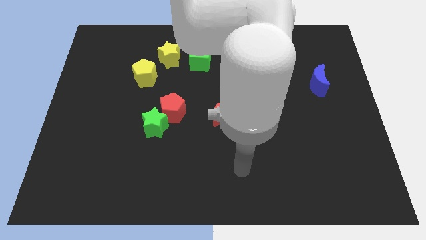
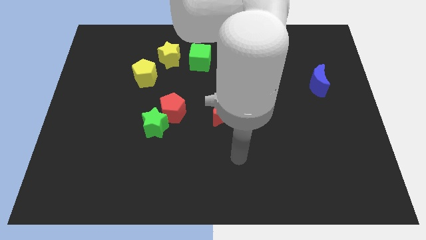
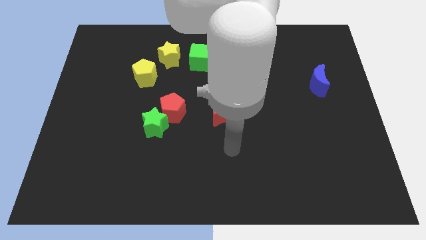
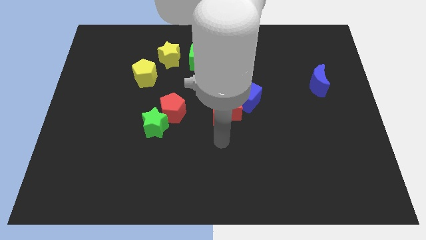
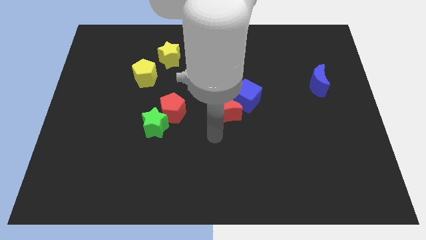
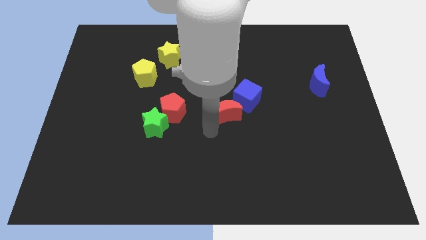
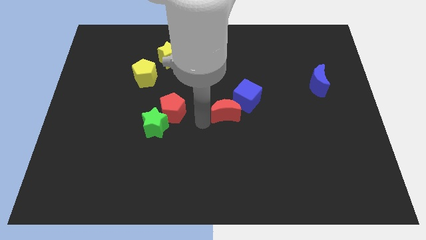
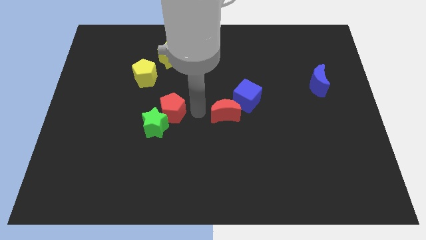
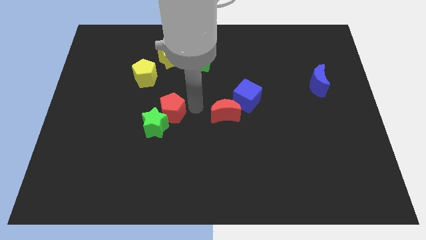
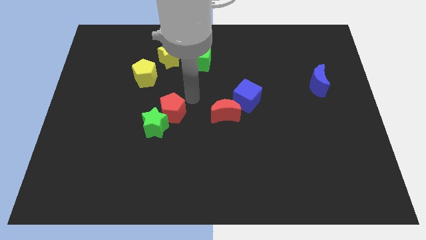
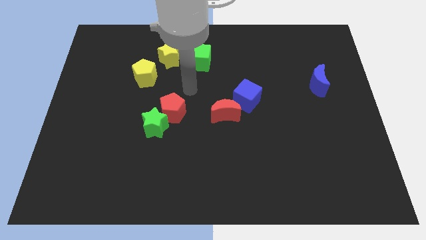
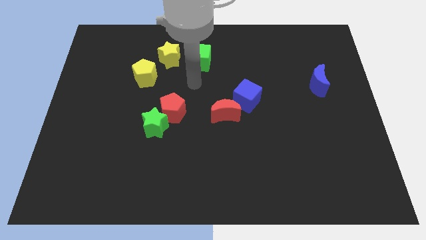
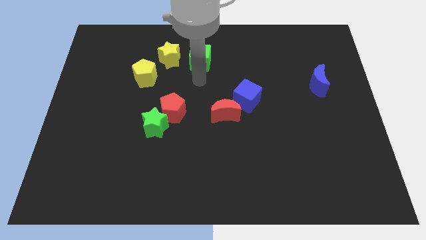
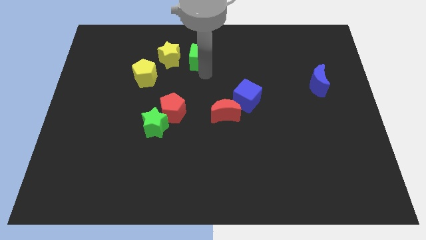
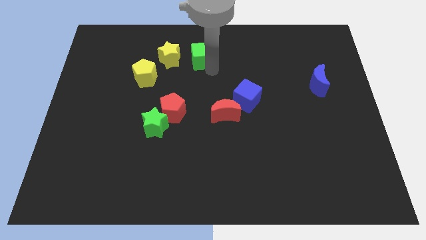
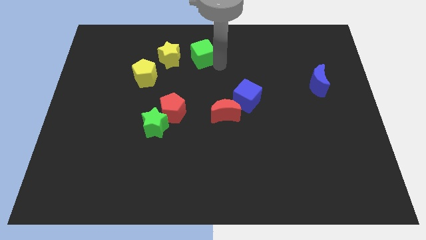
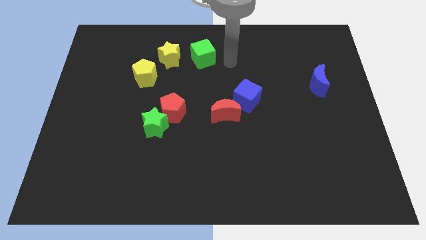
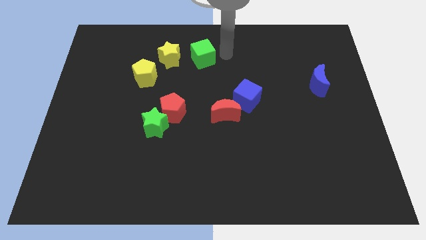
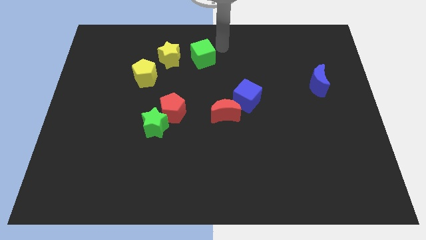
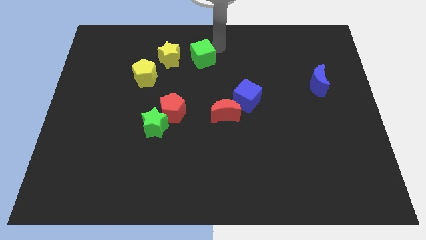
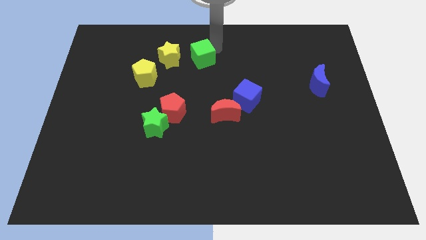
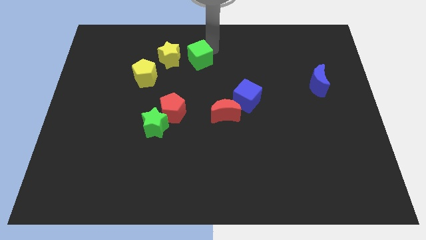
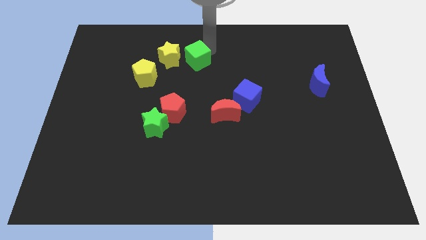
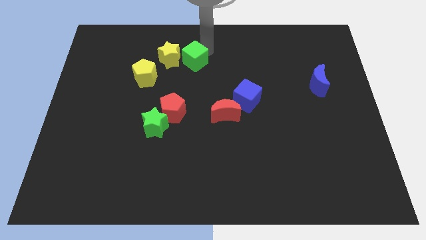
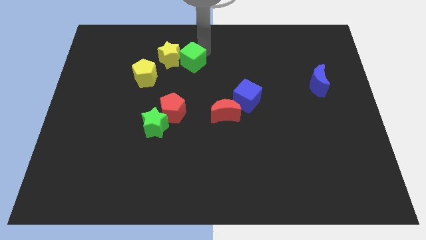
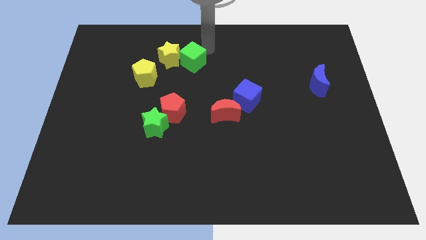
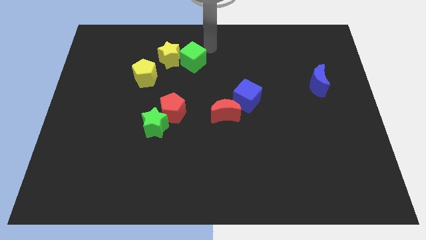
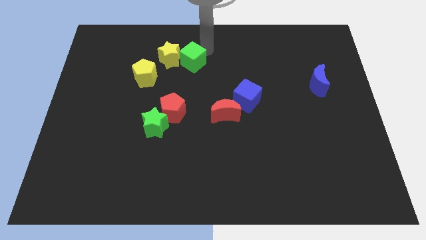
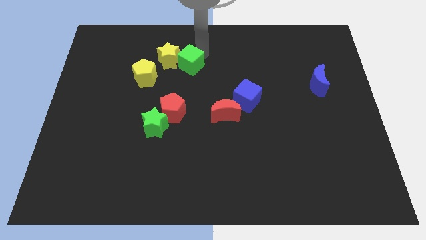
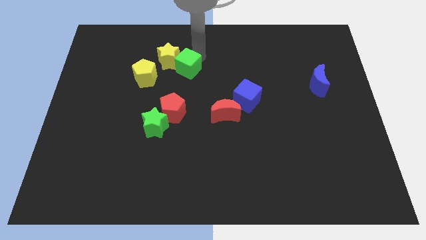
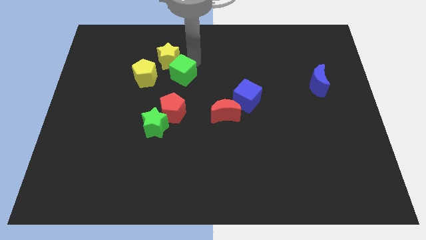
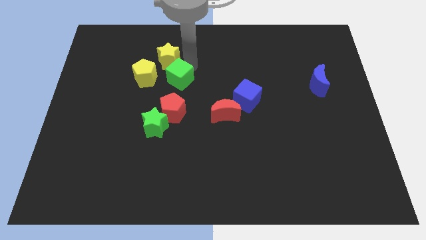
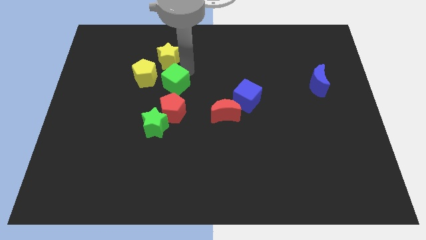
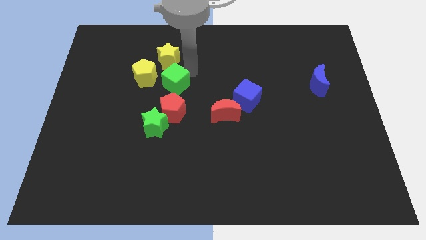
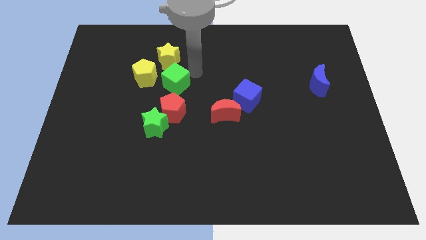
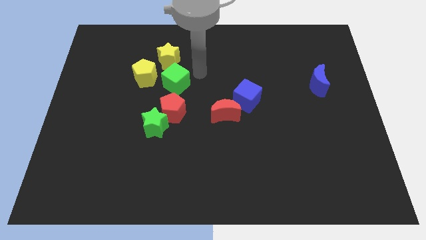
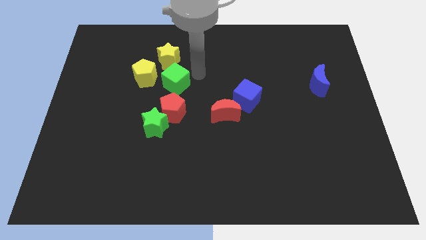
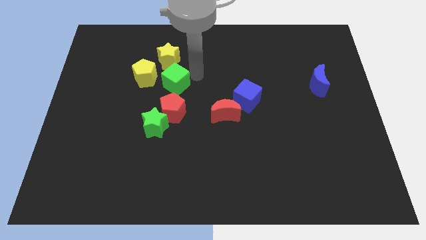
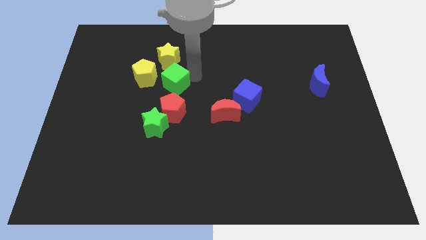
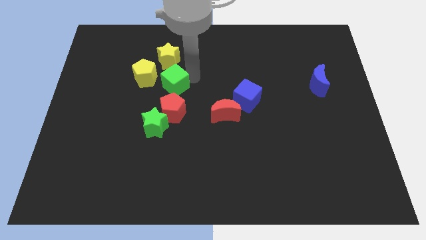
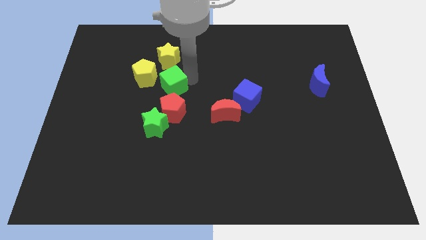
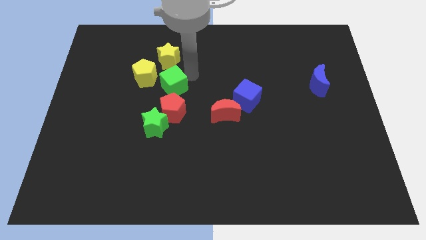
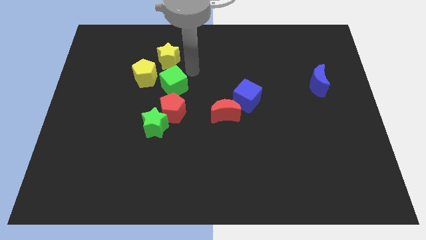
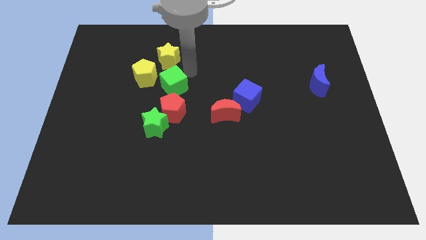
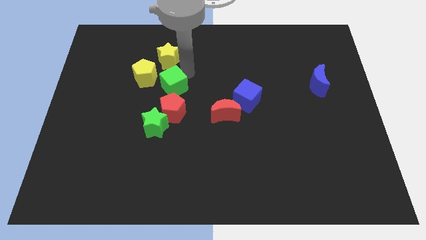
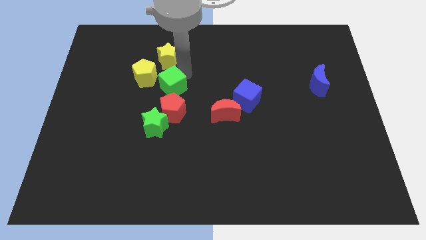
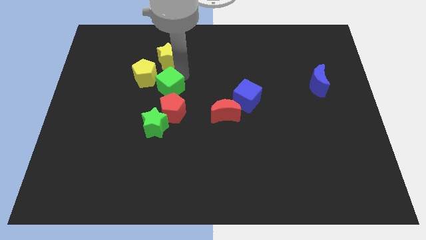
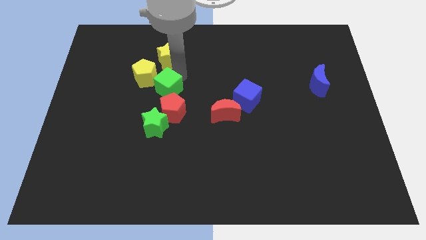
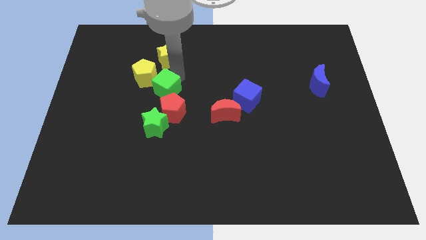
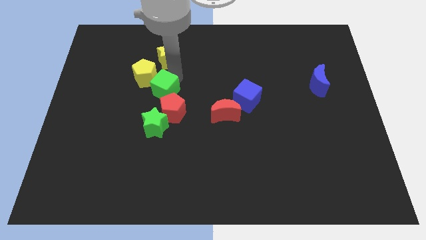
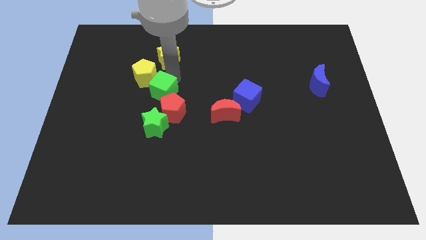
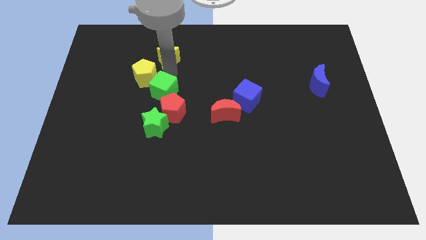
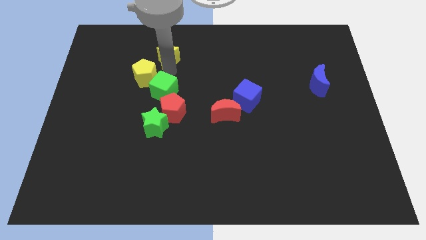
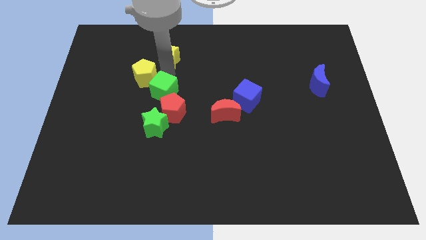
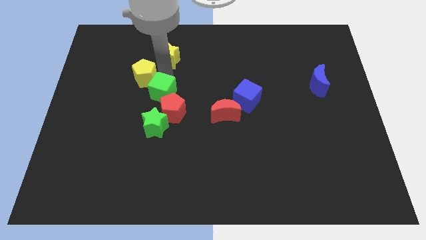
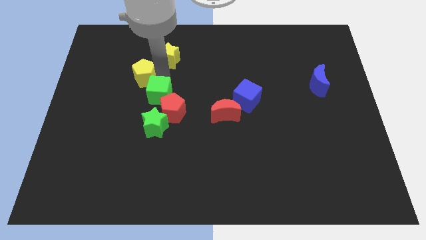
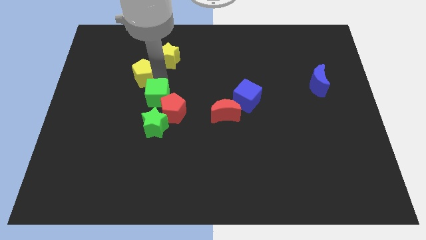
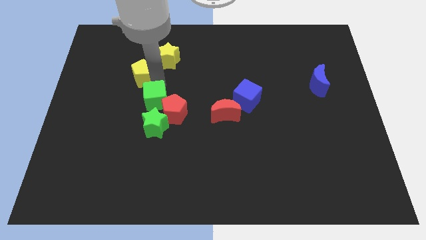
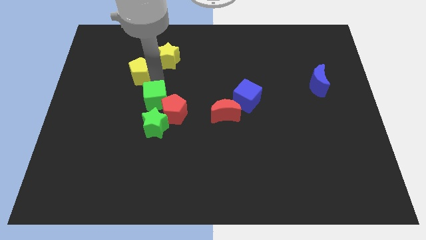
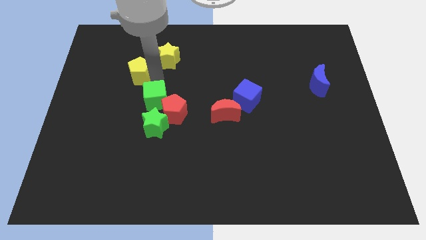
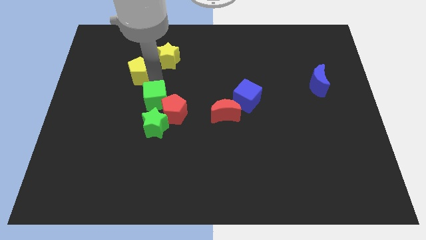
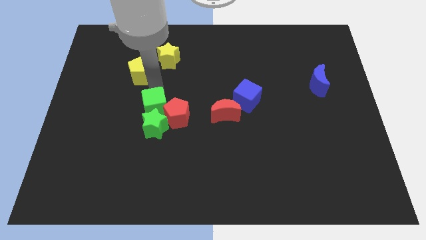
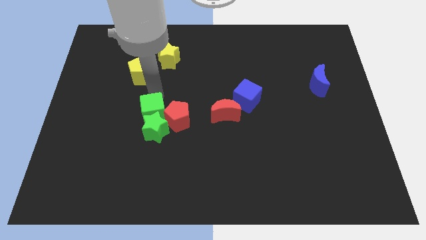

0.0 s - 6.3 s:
put the green cube next to the green star
